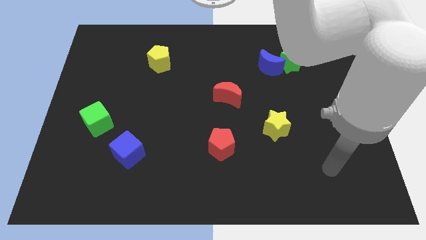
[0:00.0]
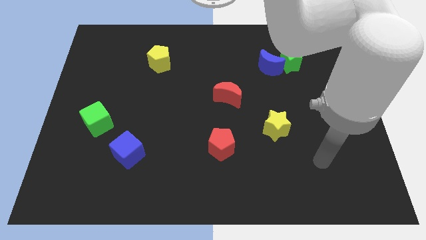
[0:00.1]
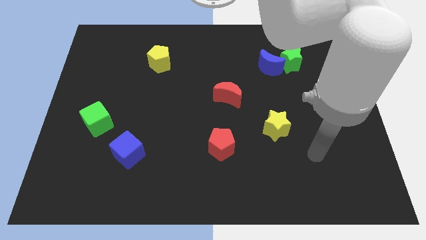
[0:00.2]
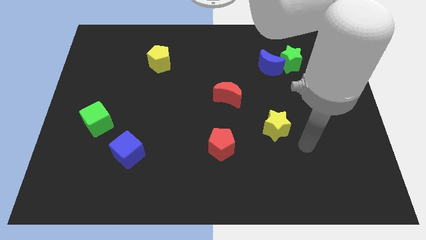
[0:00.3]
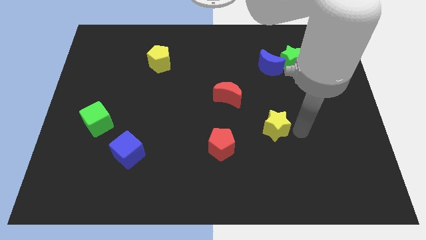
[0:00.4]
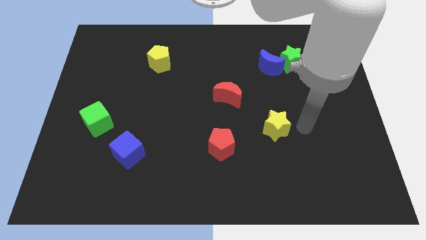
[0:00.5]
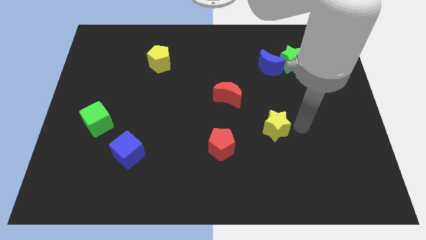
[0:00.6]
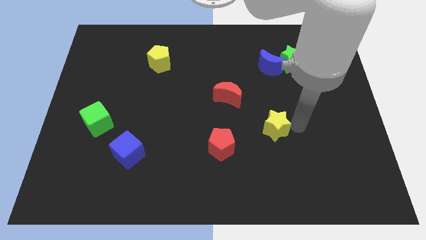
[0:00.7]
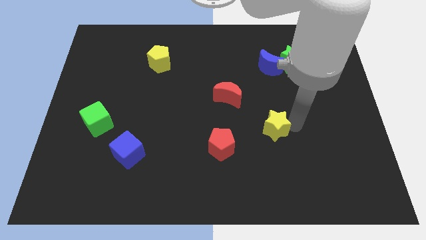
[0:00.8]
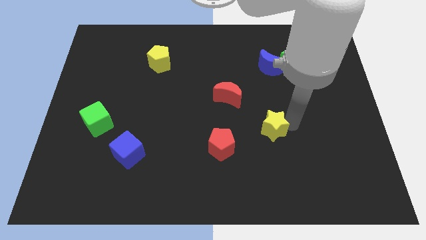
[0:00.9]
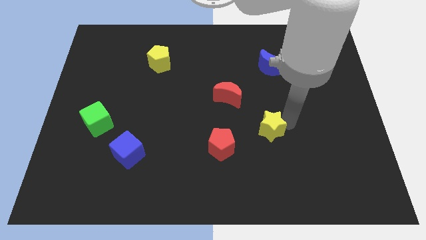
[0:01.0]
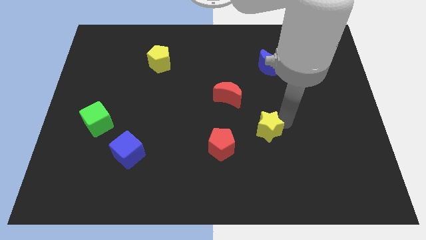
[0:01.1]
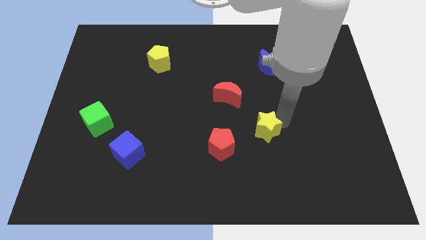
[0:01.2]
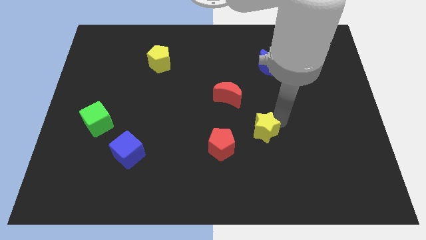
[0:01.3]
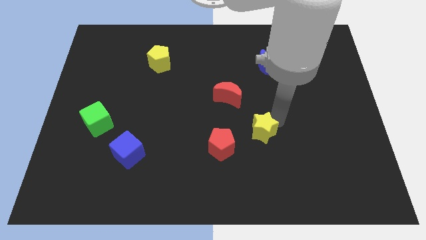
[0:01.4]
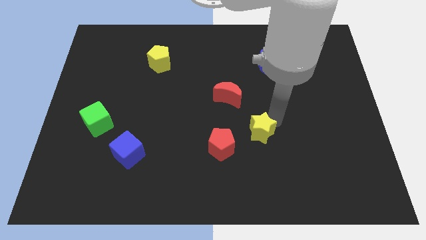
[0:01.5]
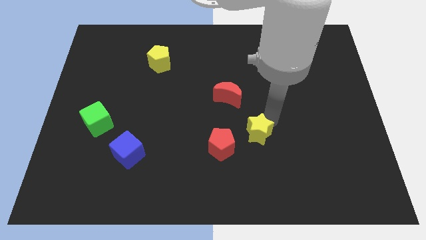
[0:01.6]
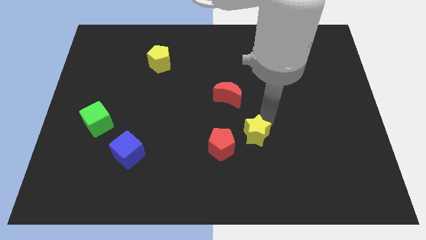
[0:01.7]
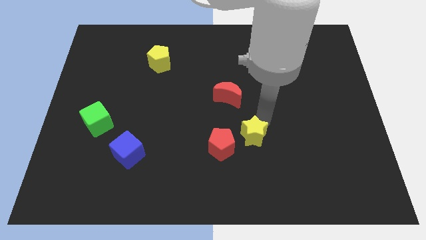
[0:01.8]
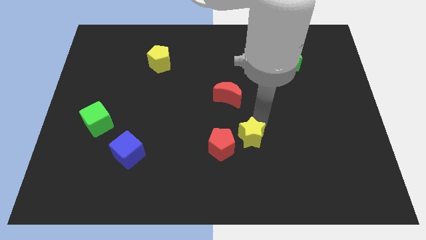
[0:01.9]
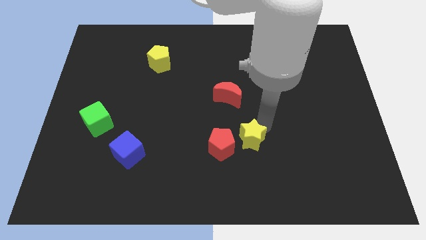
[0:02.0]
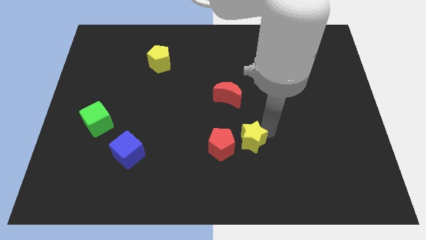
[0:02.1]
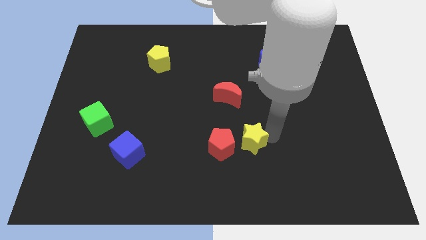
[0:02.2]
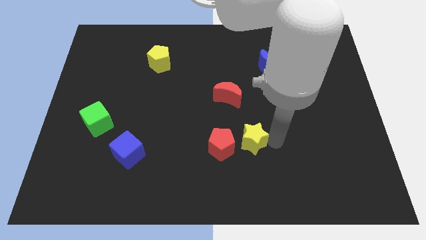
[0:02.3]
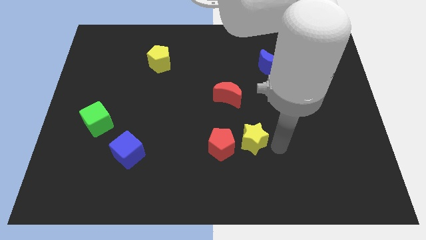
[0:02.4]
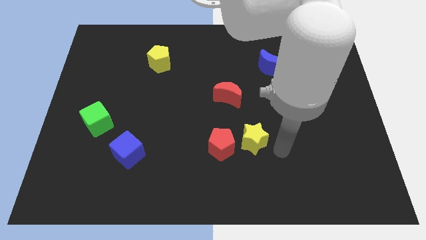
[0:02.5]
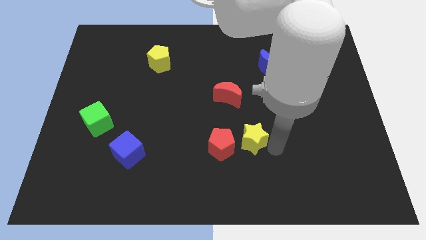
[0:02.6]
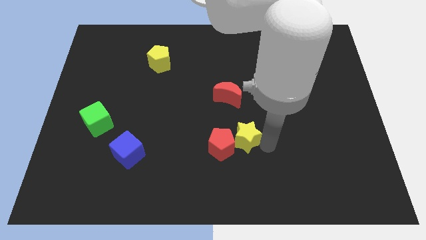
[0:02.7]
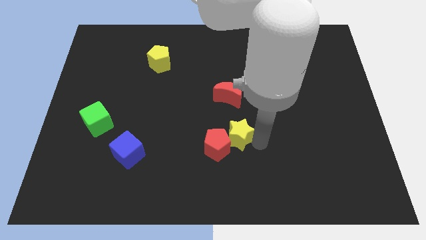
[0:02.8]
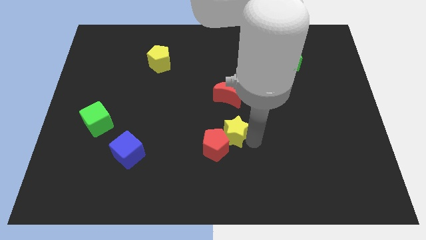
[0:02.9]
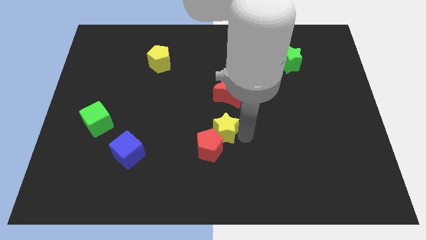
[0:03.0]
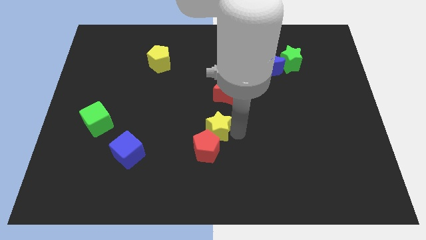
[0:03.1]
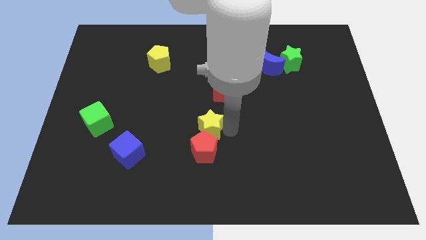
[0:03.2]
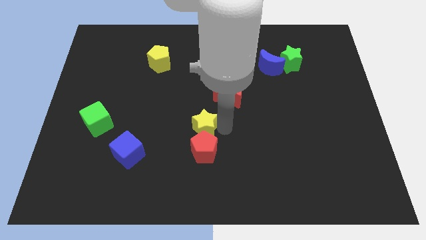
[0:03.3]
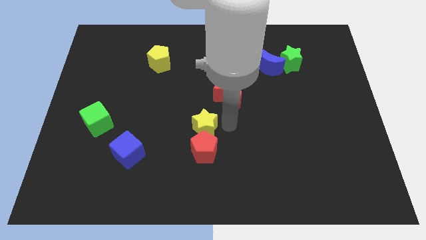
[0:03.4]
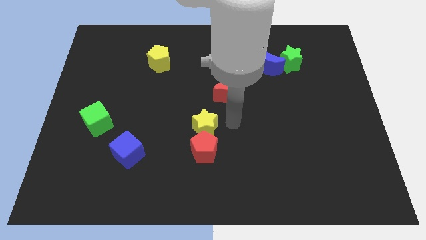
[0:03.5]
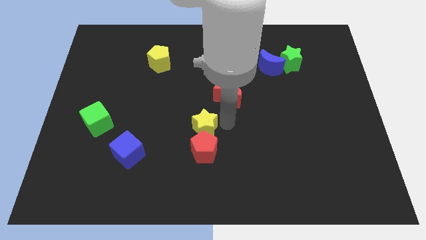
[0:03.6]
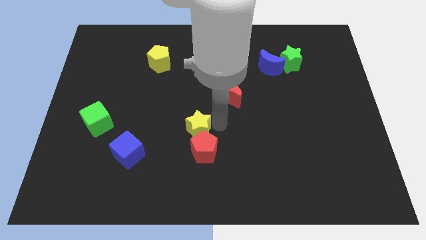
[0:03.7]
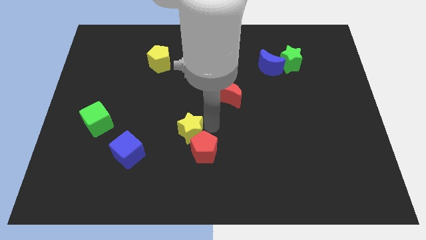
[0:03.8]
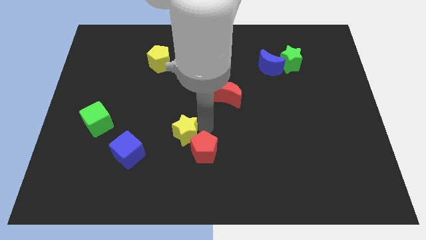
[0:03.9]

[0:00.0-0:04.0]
slide the yellow star to the left

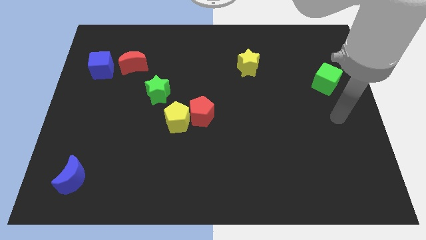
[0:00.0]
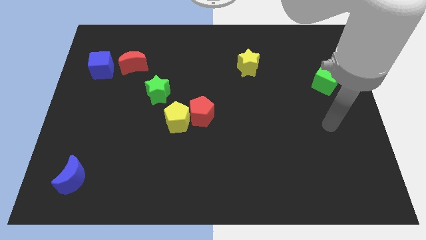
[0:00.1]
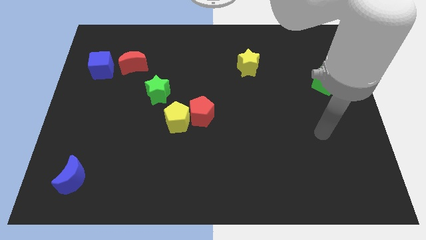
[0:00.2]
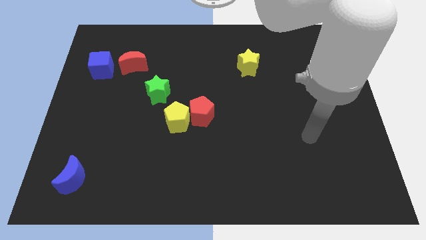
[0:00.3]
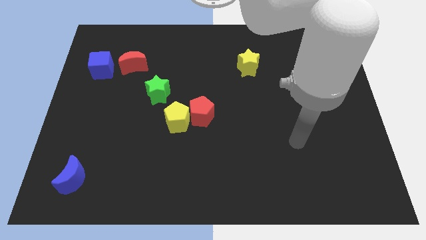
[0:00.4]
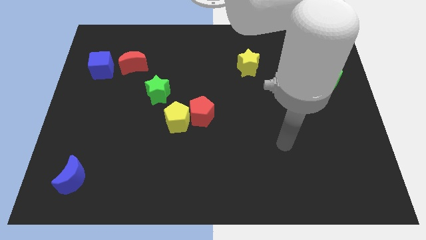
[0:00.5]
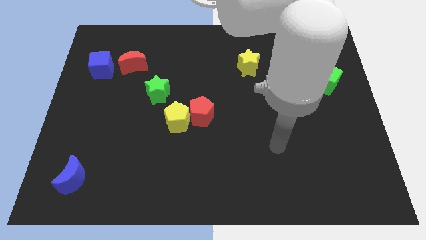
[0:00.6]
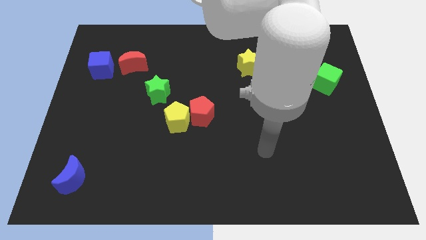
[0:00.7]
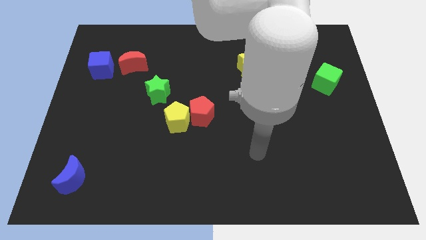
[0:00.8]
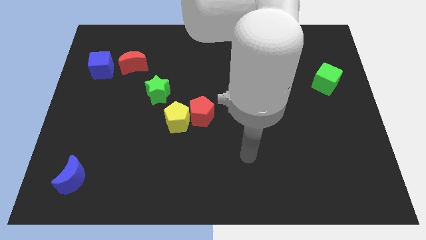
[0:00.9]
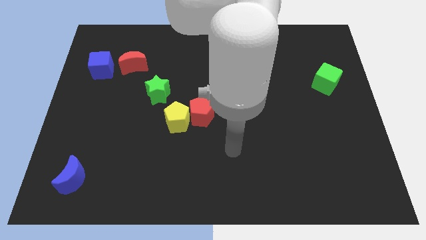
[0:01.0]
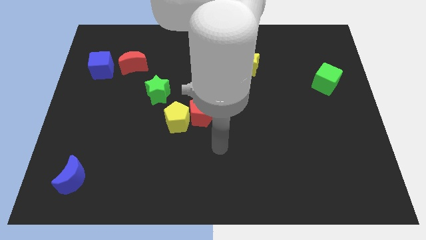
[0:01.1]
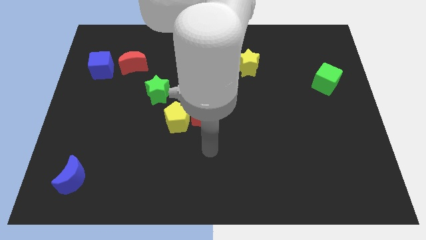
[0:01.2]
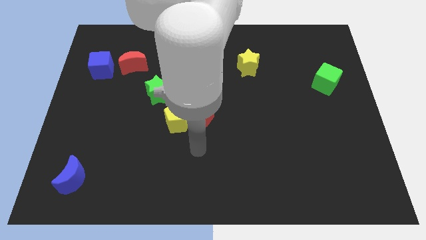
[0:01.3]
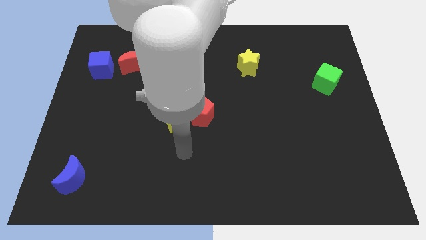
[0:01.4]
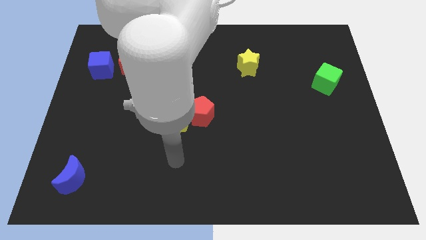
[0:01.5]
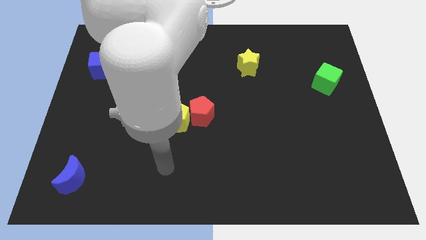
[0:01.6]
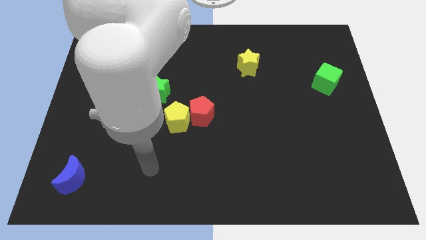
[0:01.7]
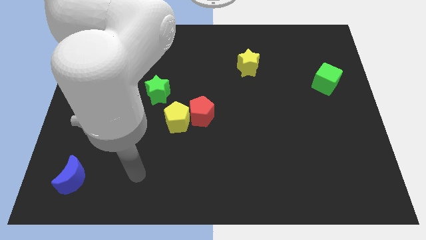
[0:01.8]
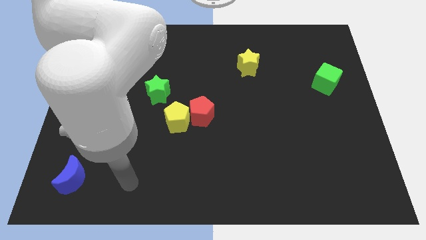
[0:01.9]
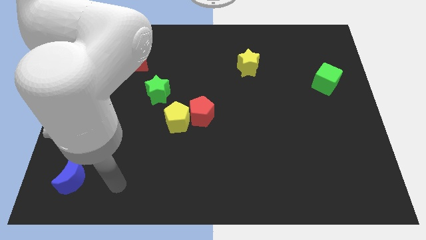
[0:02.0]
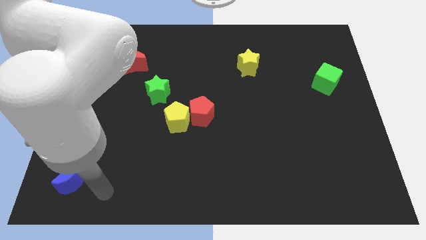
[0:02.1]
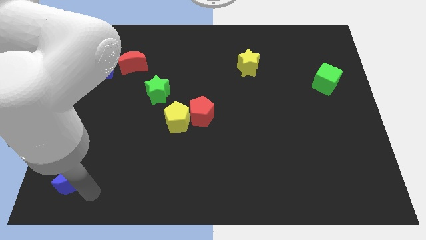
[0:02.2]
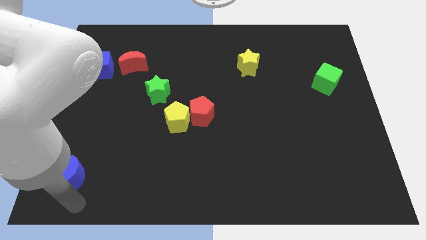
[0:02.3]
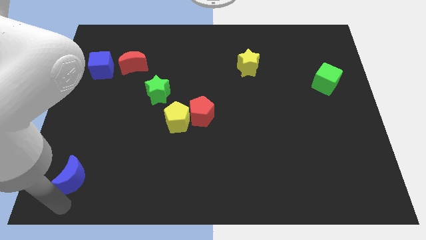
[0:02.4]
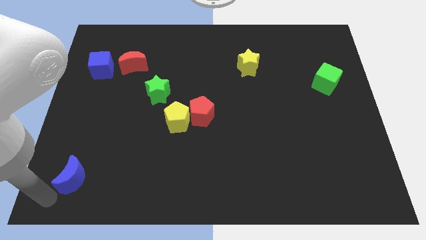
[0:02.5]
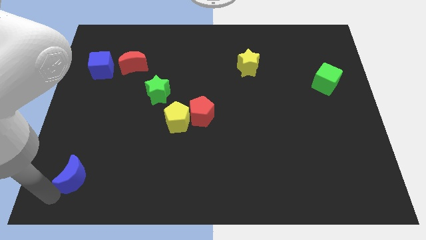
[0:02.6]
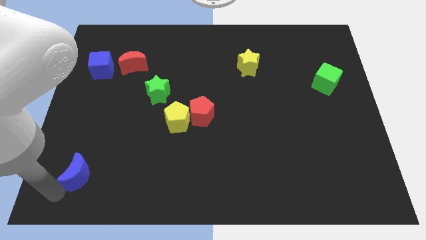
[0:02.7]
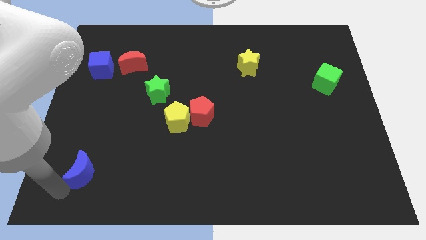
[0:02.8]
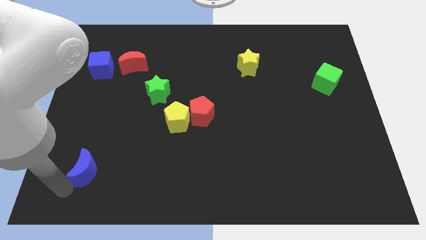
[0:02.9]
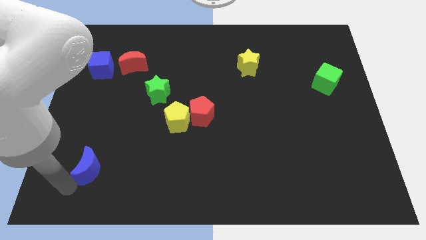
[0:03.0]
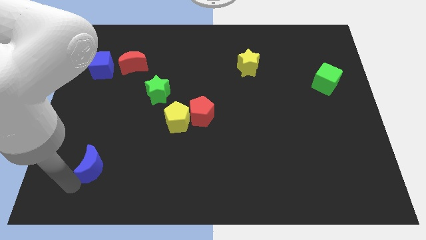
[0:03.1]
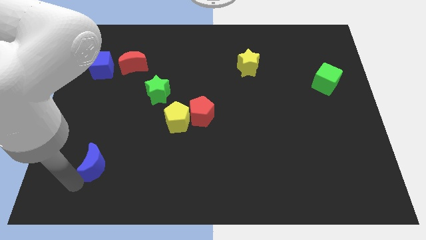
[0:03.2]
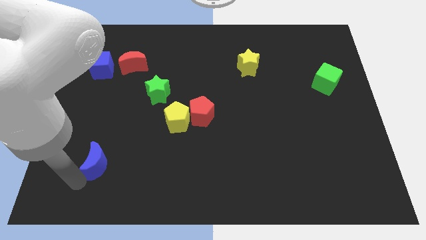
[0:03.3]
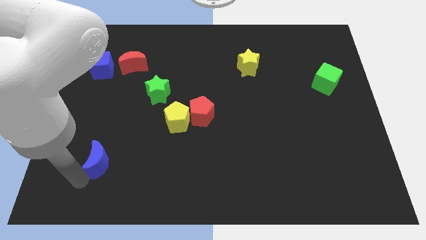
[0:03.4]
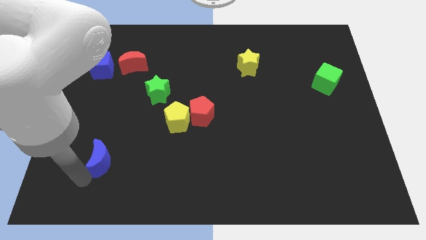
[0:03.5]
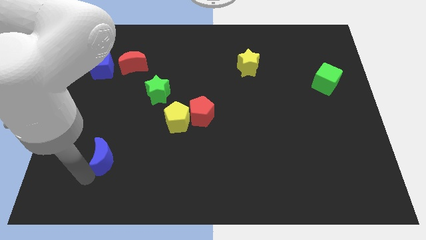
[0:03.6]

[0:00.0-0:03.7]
move the blue moon a little bit diagonally upwards and right

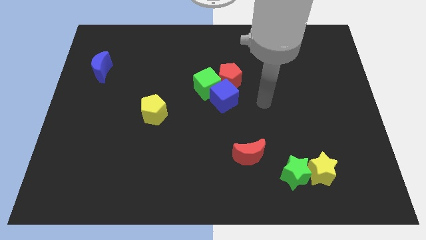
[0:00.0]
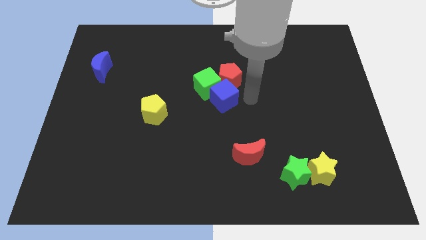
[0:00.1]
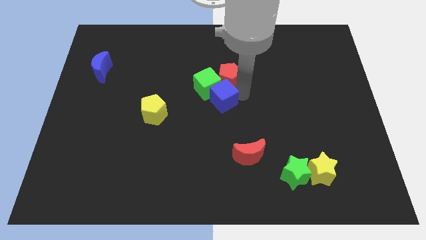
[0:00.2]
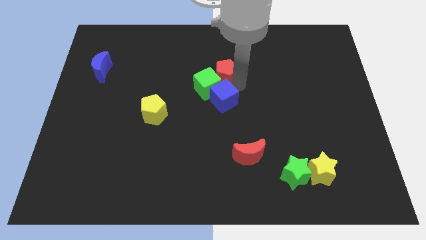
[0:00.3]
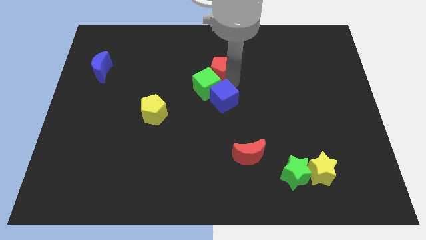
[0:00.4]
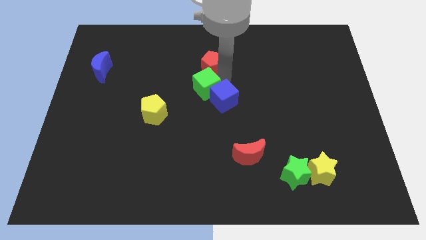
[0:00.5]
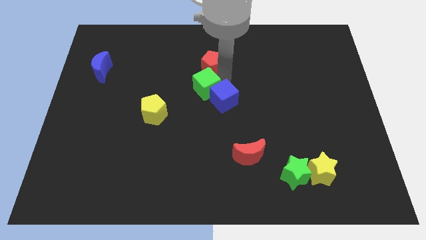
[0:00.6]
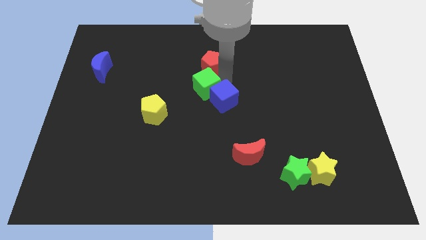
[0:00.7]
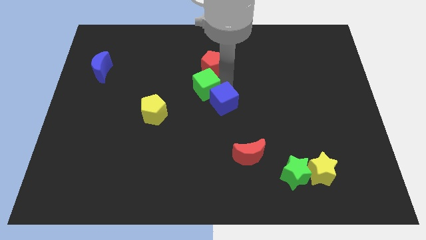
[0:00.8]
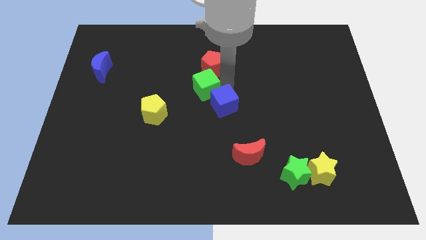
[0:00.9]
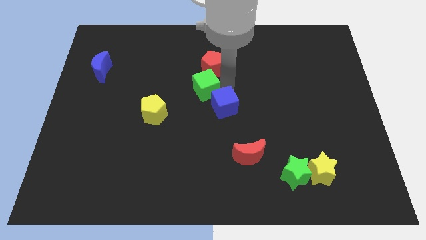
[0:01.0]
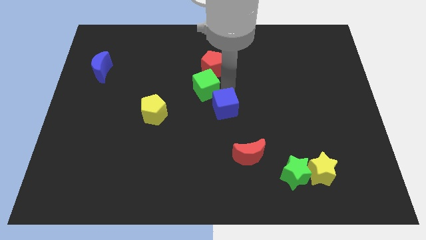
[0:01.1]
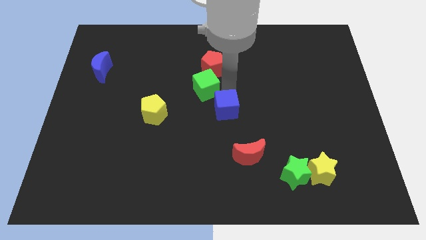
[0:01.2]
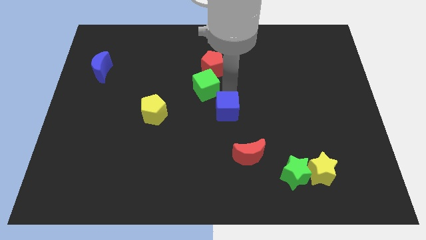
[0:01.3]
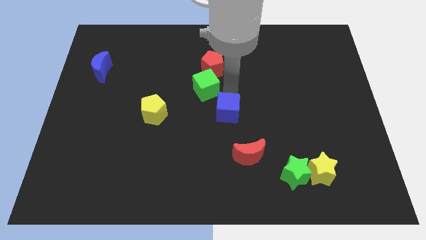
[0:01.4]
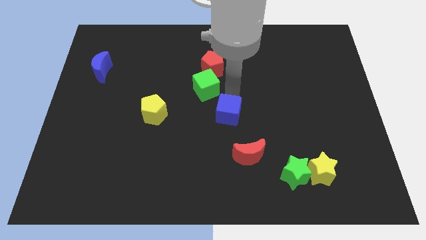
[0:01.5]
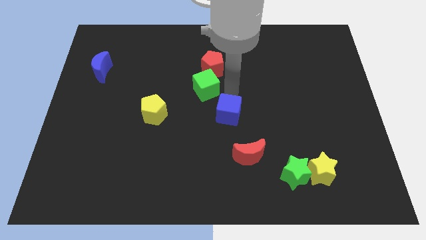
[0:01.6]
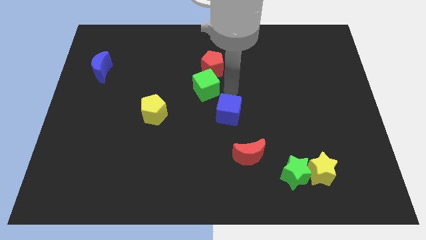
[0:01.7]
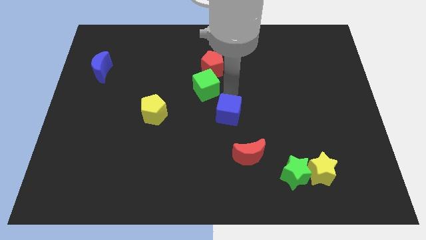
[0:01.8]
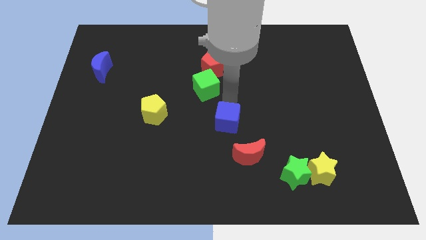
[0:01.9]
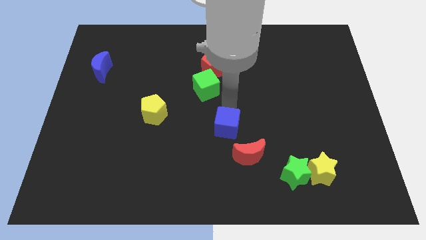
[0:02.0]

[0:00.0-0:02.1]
slide the blue cube somewhat downwards
